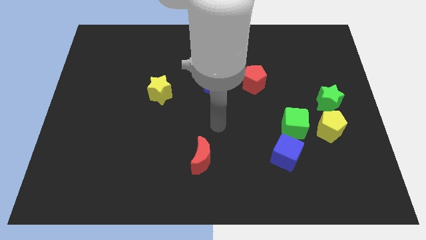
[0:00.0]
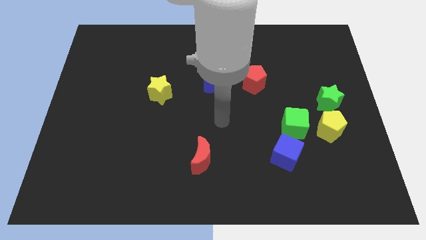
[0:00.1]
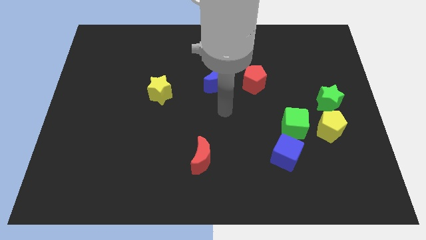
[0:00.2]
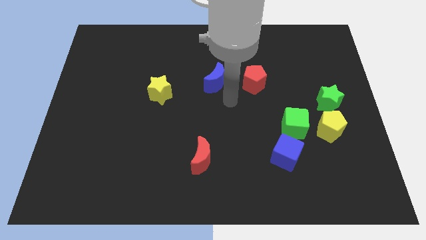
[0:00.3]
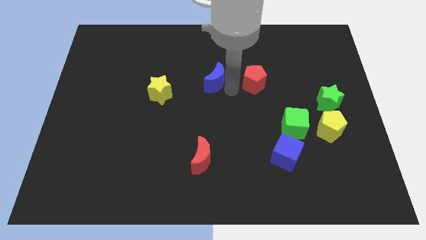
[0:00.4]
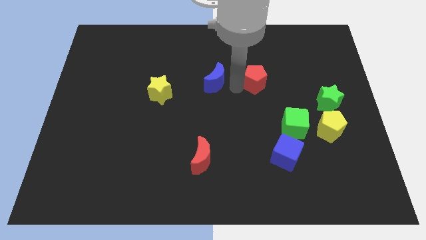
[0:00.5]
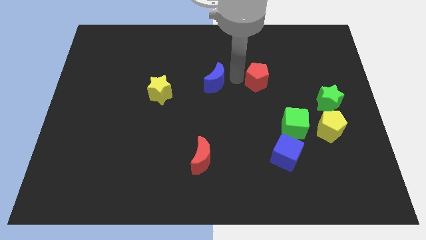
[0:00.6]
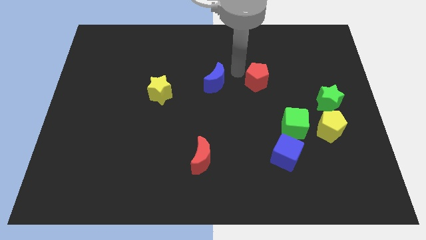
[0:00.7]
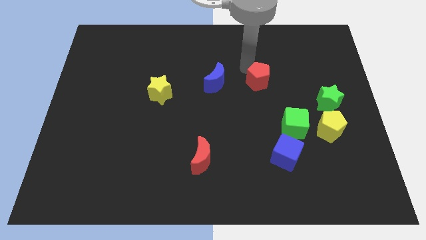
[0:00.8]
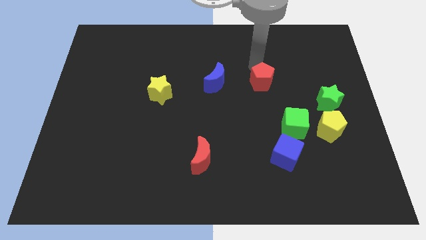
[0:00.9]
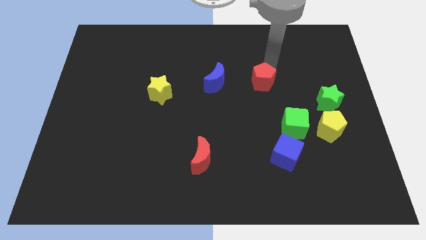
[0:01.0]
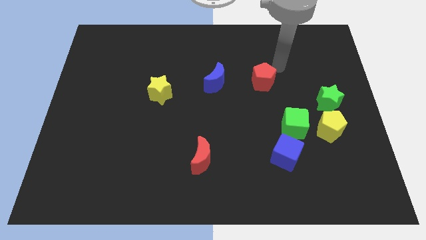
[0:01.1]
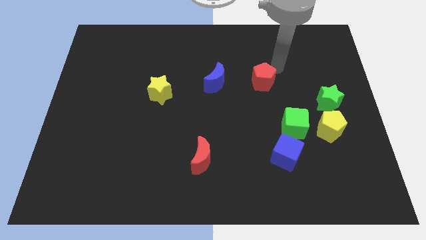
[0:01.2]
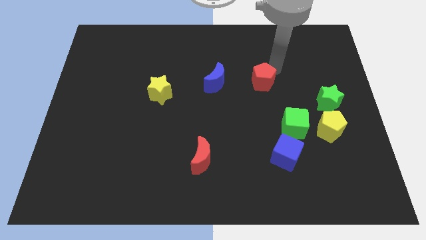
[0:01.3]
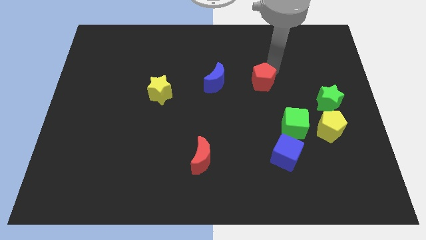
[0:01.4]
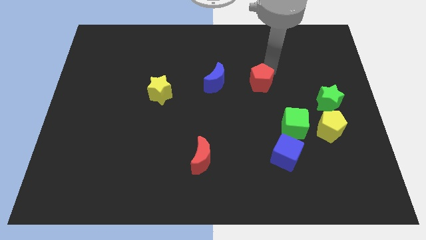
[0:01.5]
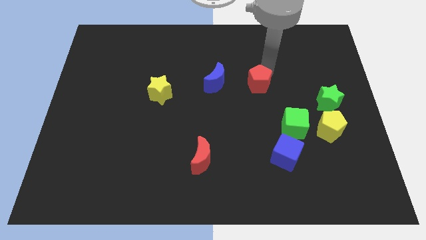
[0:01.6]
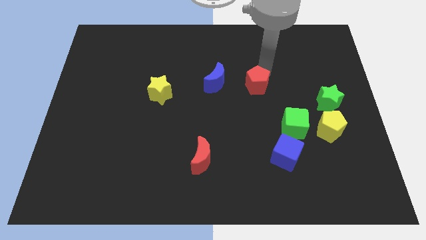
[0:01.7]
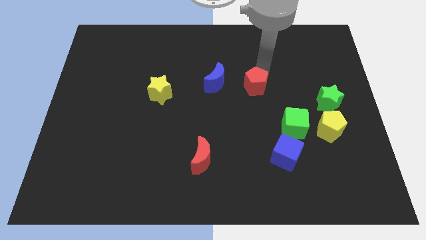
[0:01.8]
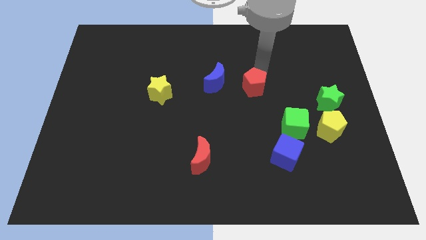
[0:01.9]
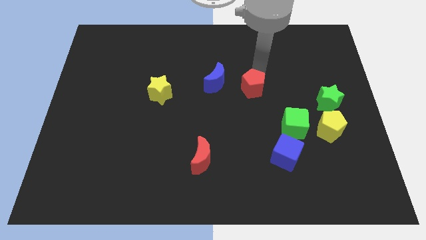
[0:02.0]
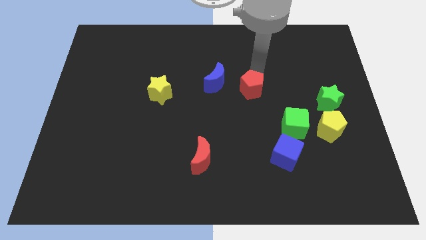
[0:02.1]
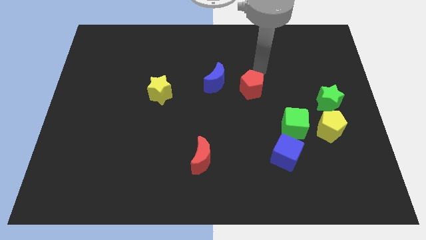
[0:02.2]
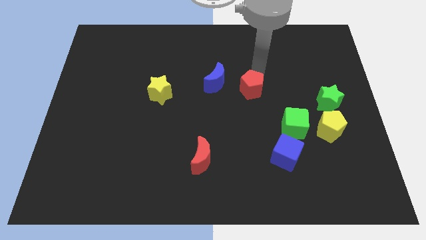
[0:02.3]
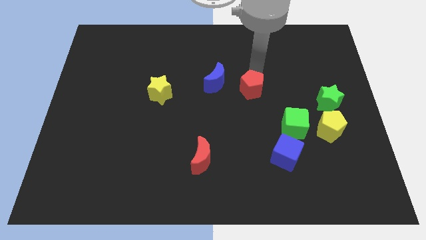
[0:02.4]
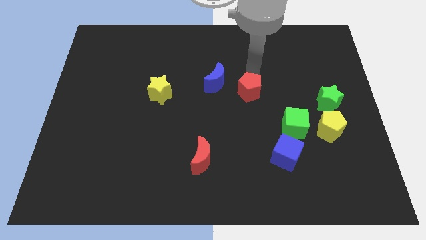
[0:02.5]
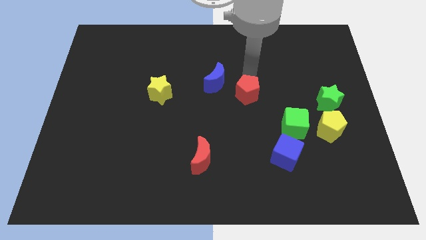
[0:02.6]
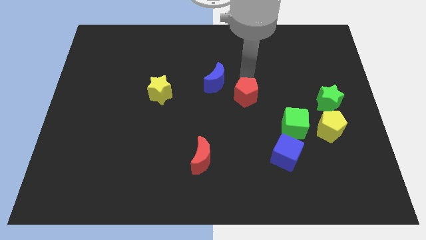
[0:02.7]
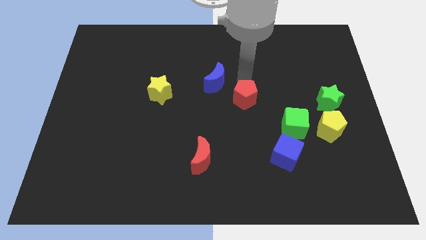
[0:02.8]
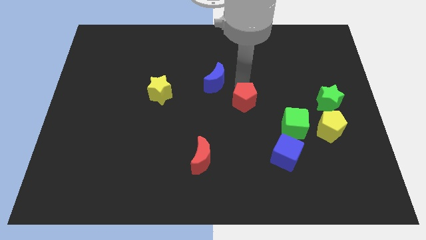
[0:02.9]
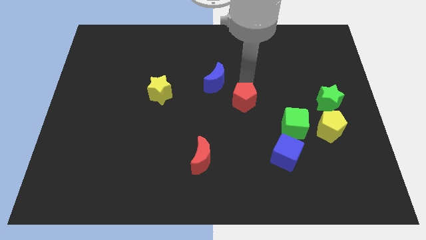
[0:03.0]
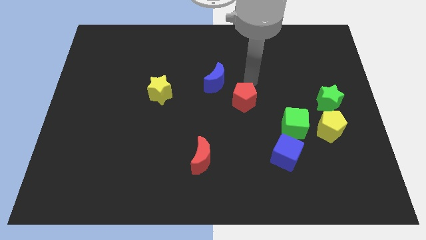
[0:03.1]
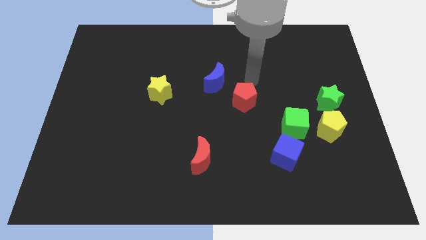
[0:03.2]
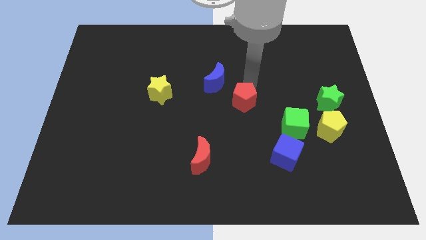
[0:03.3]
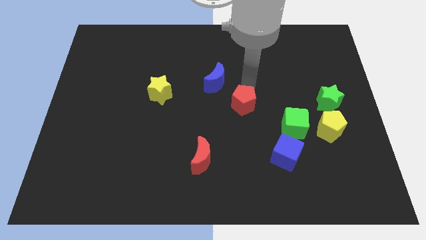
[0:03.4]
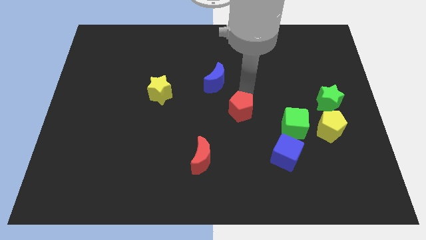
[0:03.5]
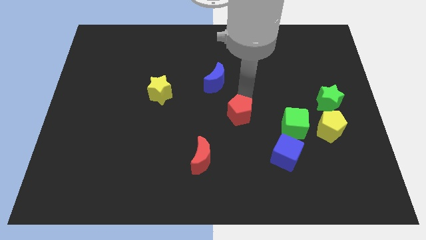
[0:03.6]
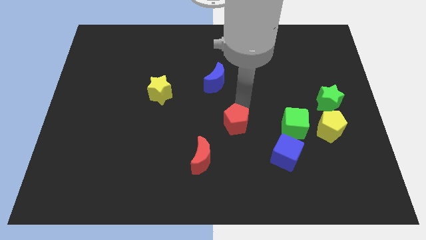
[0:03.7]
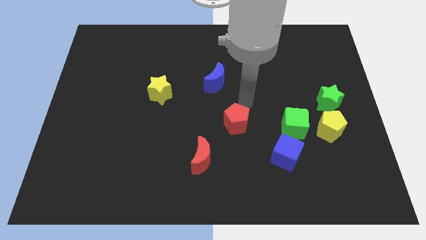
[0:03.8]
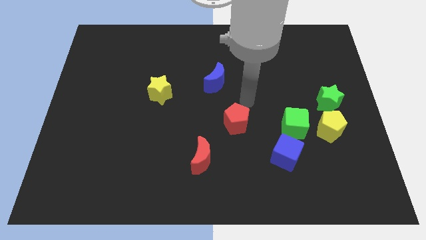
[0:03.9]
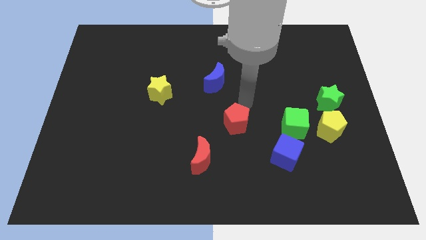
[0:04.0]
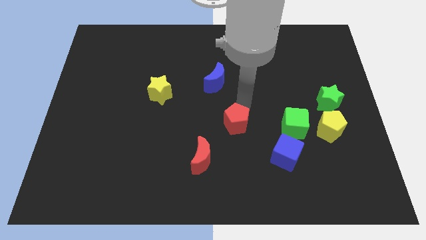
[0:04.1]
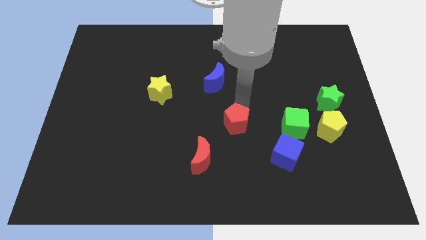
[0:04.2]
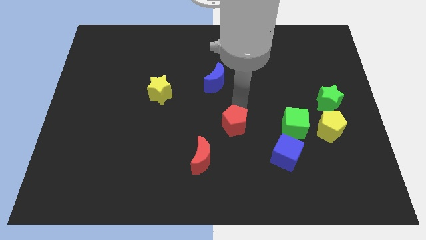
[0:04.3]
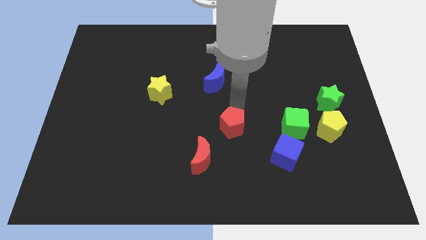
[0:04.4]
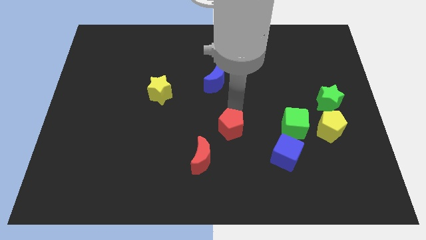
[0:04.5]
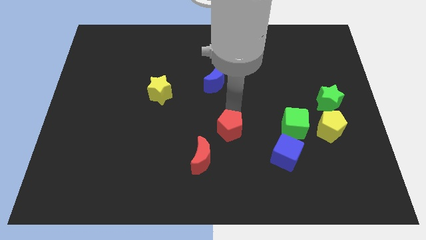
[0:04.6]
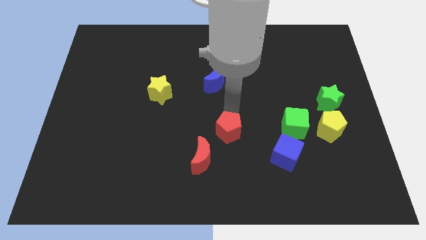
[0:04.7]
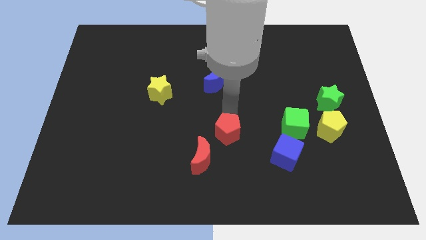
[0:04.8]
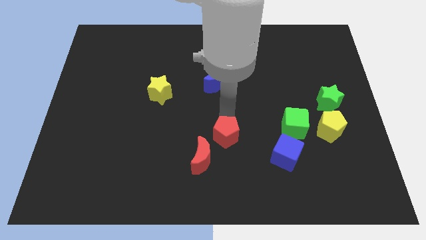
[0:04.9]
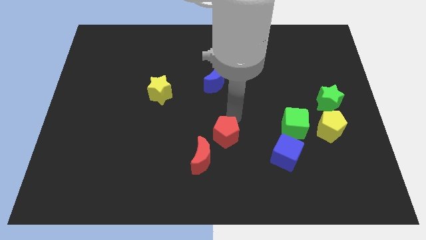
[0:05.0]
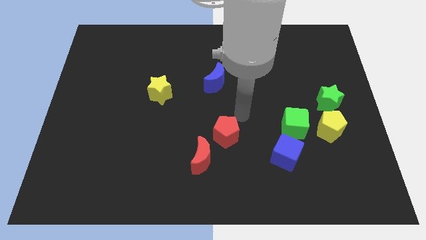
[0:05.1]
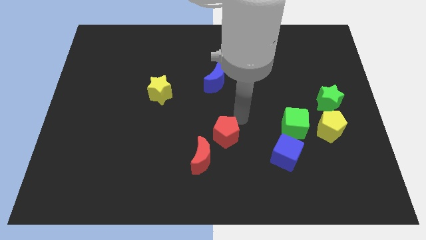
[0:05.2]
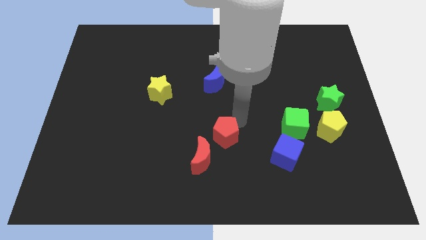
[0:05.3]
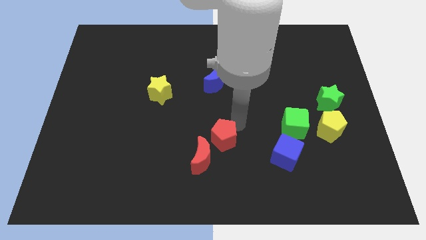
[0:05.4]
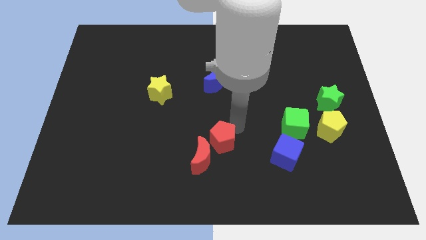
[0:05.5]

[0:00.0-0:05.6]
slide the red pentagon close to the red moon

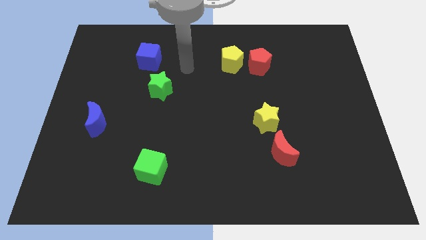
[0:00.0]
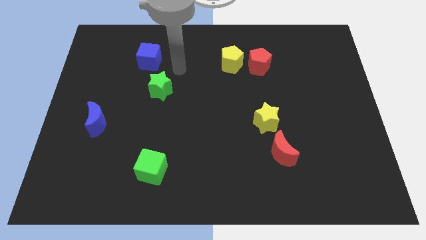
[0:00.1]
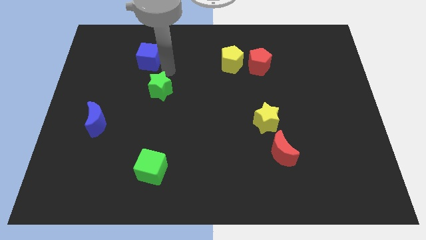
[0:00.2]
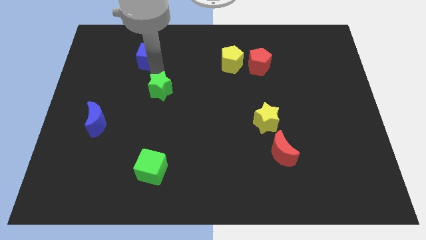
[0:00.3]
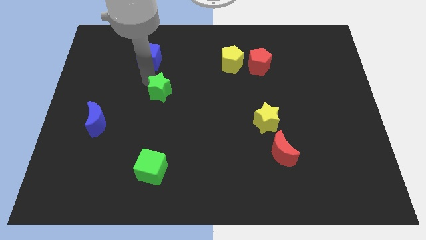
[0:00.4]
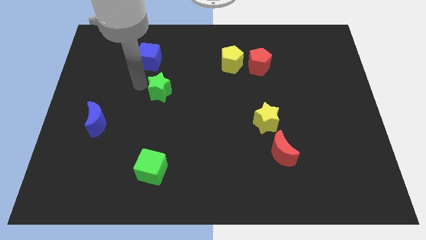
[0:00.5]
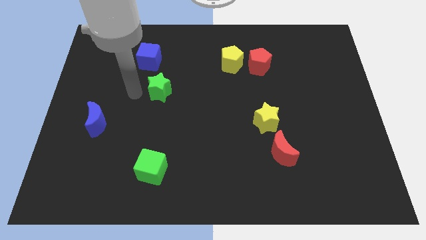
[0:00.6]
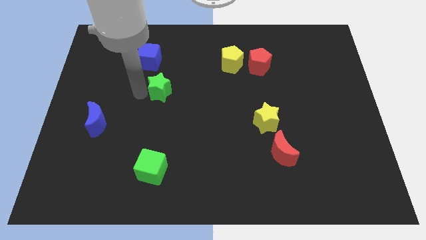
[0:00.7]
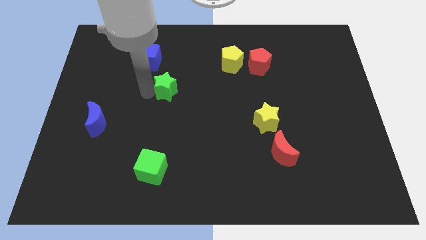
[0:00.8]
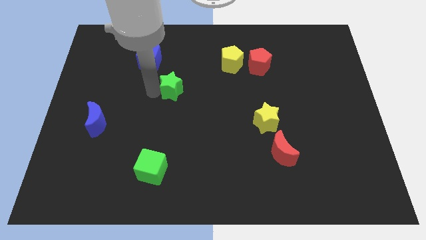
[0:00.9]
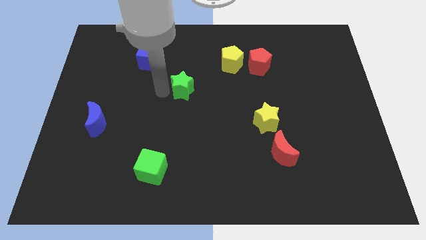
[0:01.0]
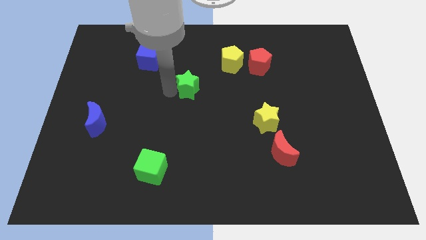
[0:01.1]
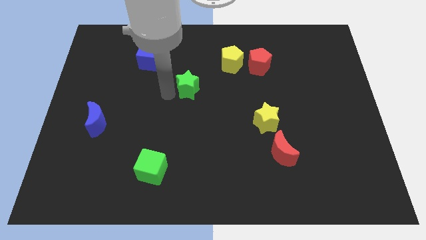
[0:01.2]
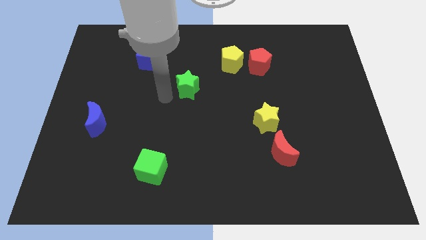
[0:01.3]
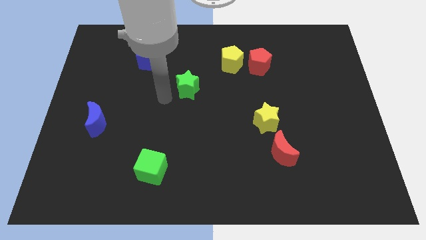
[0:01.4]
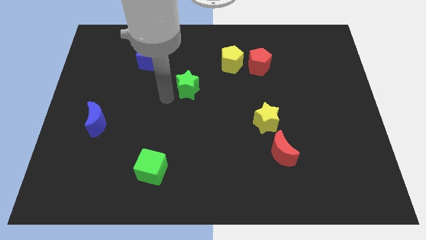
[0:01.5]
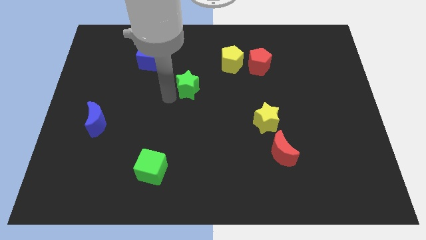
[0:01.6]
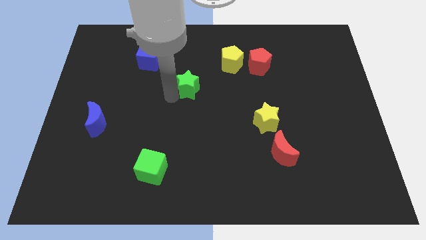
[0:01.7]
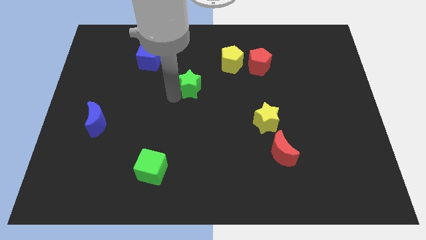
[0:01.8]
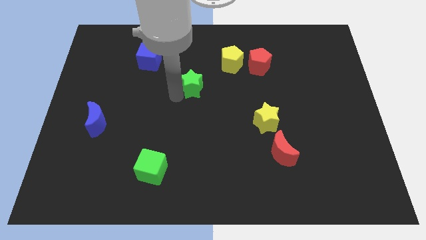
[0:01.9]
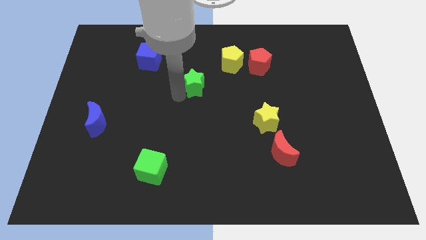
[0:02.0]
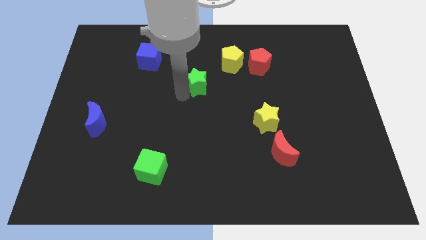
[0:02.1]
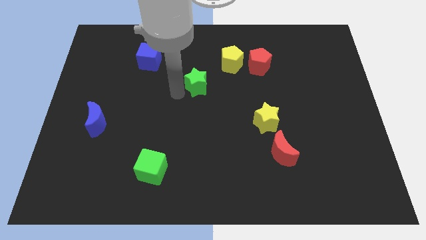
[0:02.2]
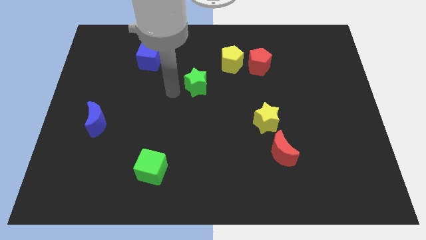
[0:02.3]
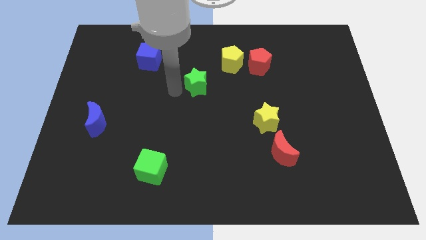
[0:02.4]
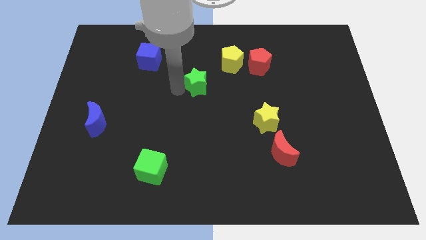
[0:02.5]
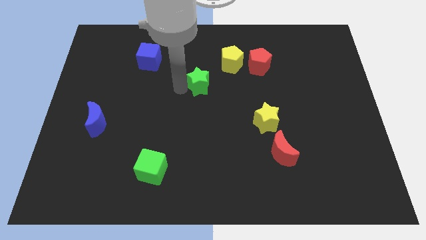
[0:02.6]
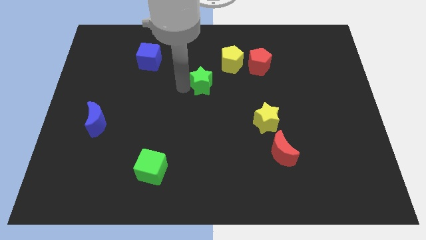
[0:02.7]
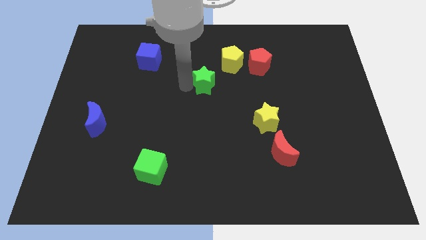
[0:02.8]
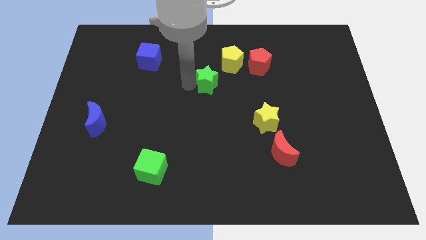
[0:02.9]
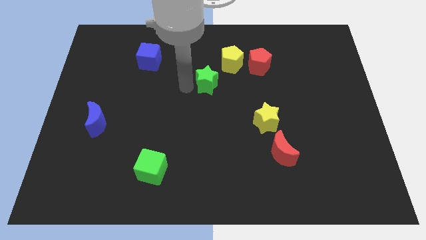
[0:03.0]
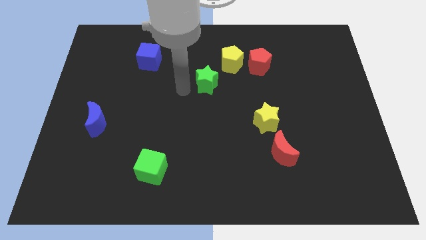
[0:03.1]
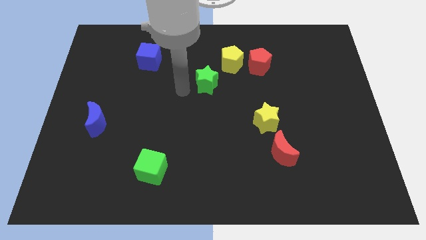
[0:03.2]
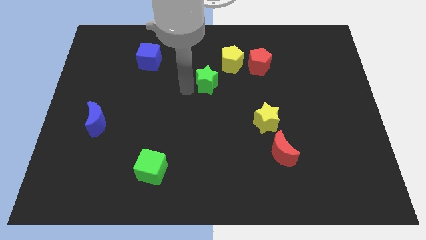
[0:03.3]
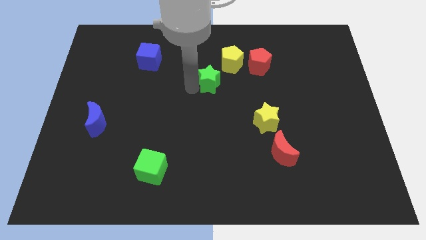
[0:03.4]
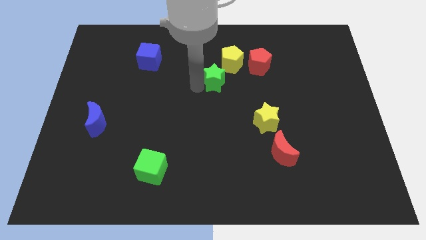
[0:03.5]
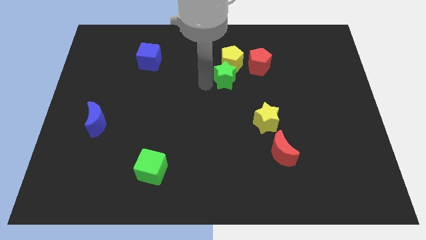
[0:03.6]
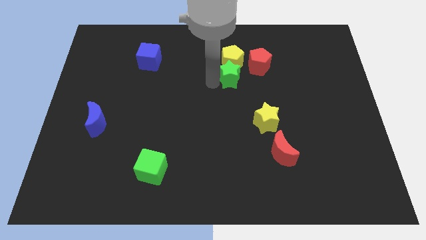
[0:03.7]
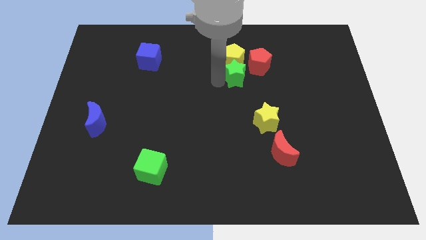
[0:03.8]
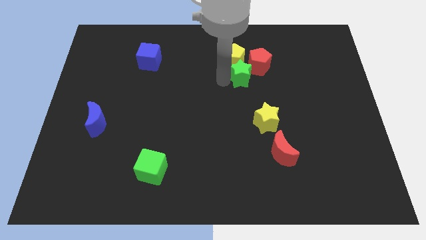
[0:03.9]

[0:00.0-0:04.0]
push the green star close to the red pentagon
